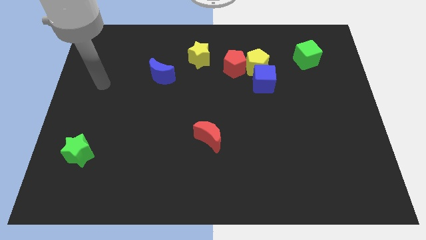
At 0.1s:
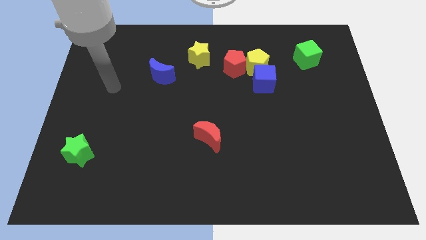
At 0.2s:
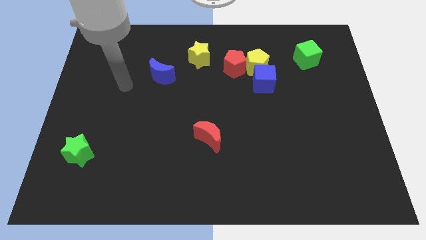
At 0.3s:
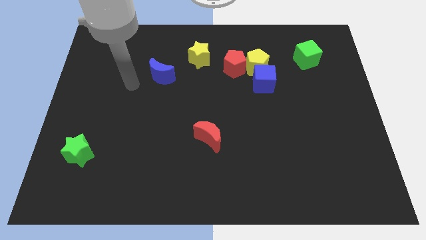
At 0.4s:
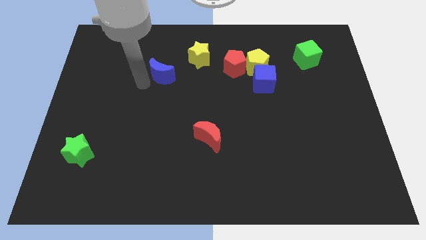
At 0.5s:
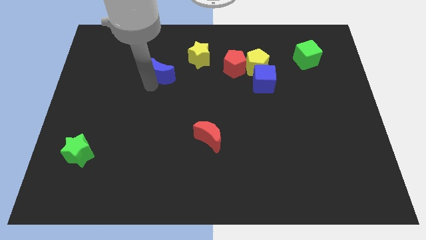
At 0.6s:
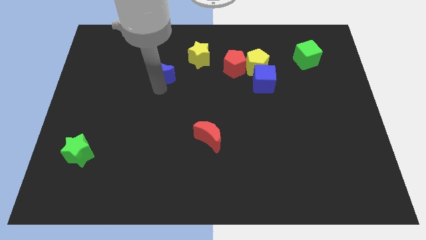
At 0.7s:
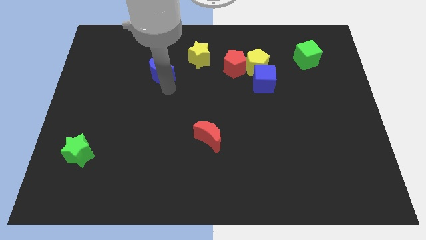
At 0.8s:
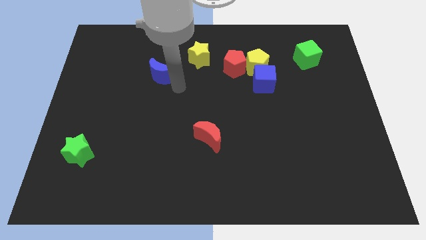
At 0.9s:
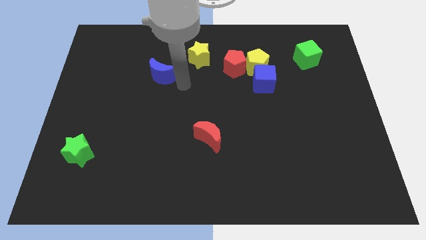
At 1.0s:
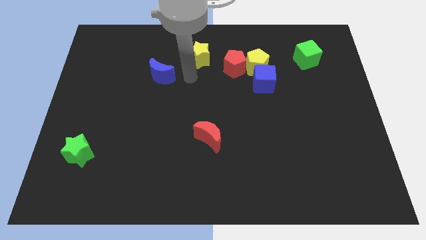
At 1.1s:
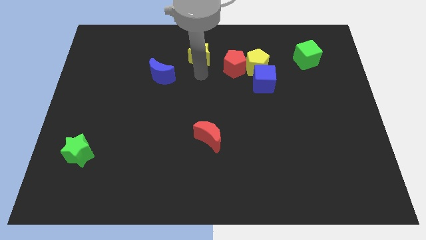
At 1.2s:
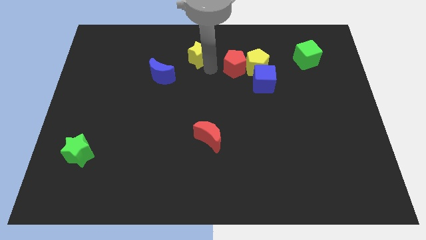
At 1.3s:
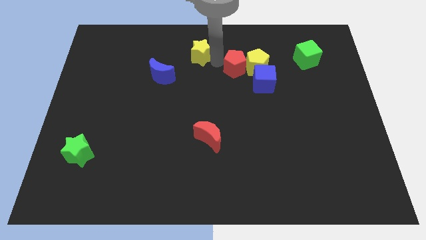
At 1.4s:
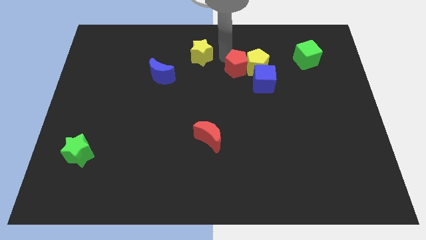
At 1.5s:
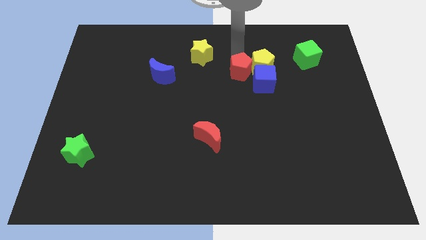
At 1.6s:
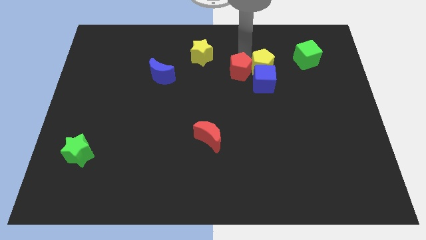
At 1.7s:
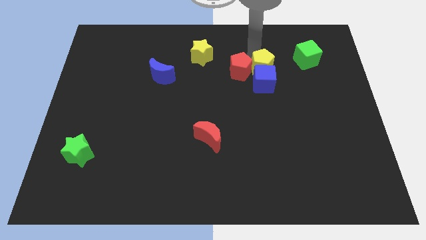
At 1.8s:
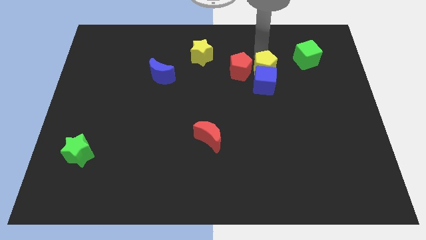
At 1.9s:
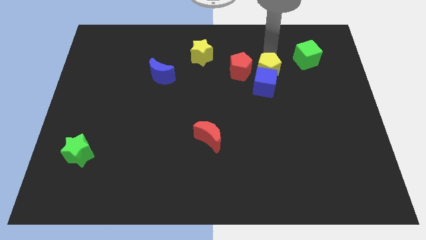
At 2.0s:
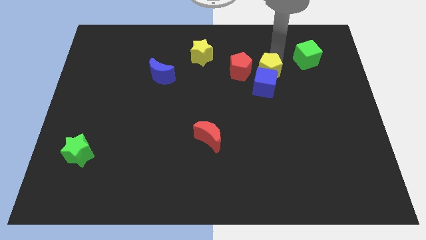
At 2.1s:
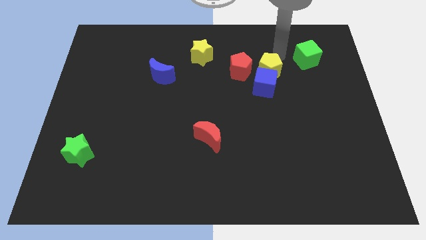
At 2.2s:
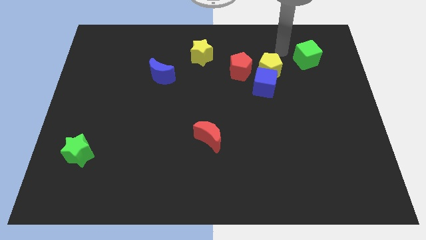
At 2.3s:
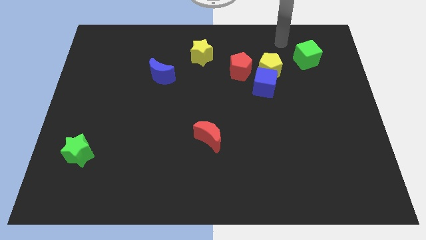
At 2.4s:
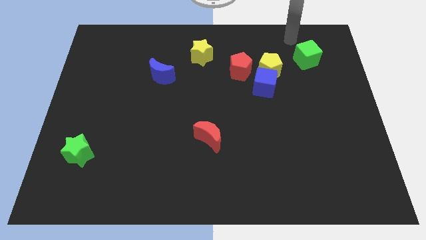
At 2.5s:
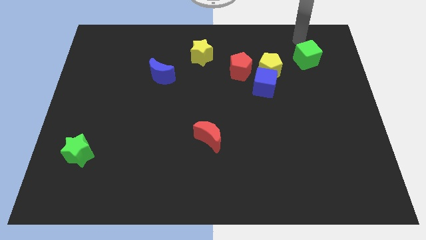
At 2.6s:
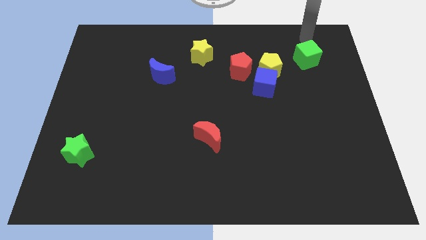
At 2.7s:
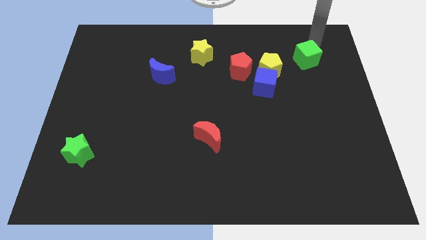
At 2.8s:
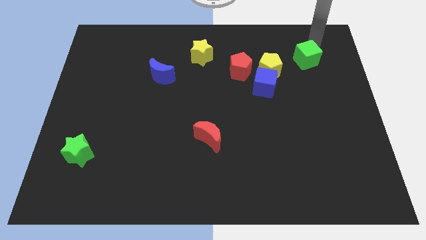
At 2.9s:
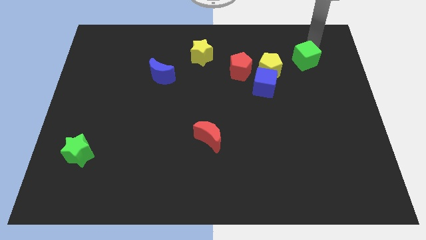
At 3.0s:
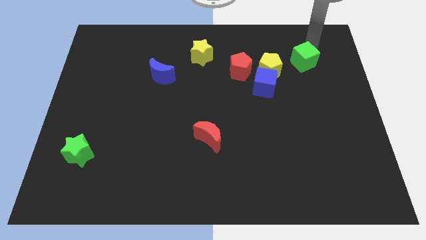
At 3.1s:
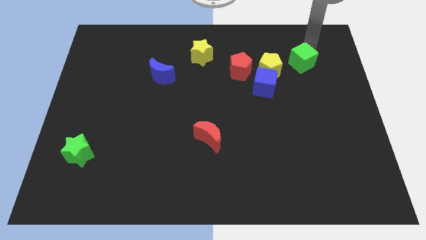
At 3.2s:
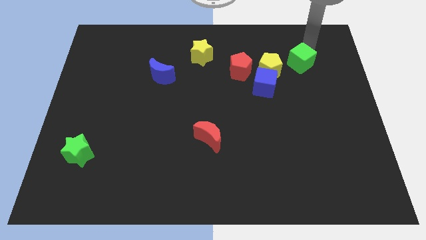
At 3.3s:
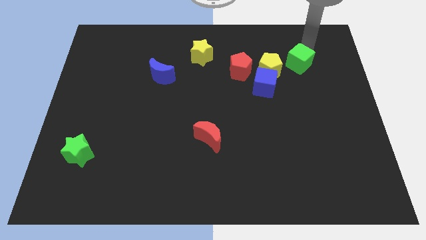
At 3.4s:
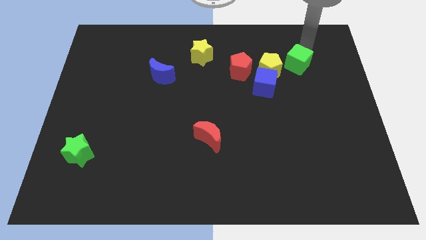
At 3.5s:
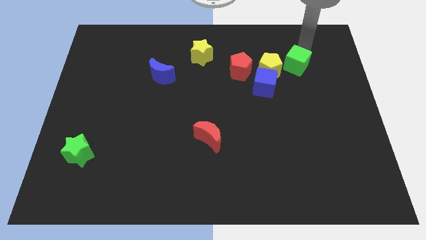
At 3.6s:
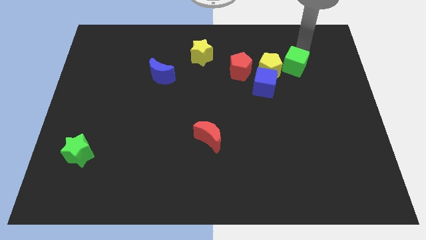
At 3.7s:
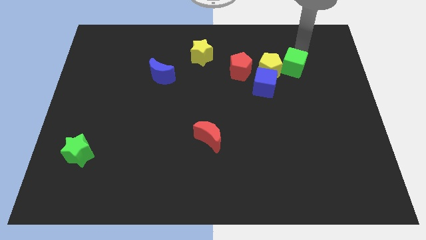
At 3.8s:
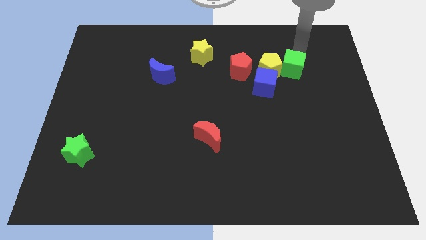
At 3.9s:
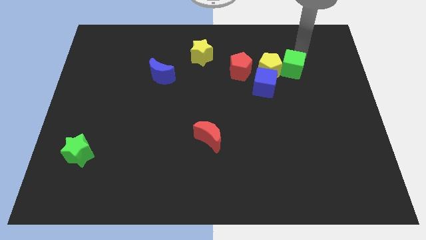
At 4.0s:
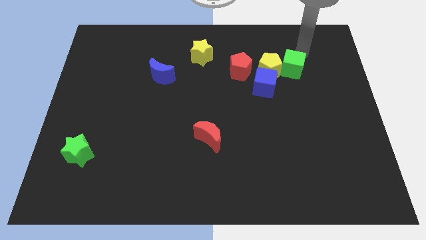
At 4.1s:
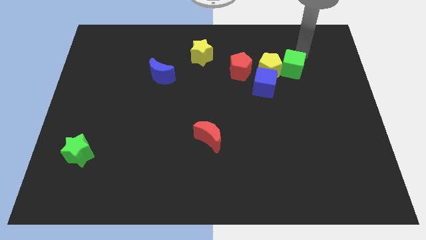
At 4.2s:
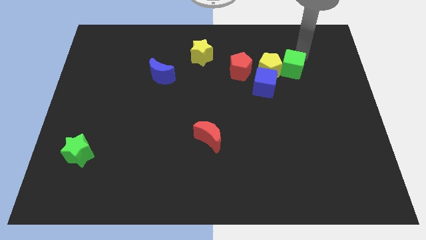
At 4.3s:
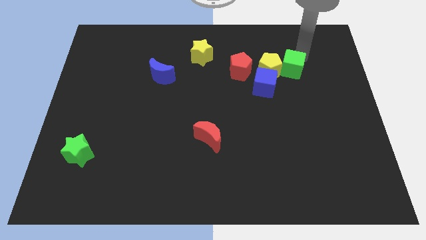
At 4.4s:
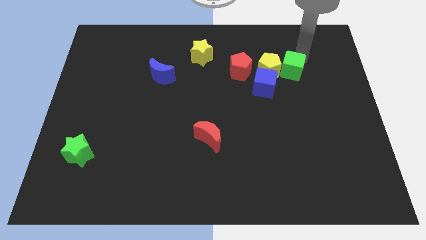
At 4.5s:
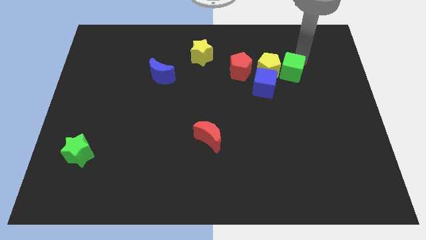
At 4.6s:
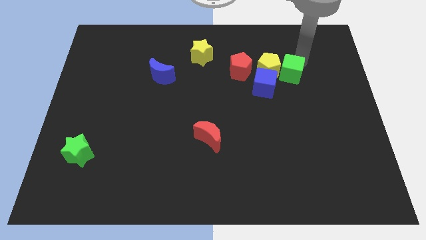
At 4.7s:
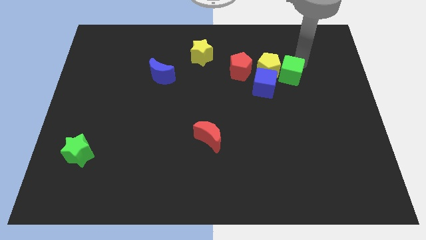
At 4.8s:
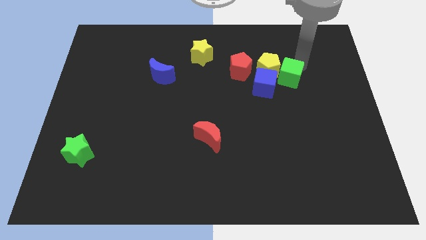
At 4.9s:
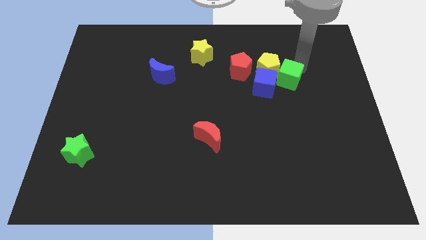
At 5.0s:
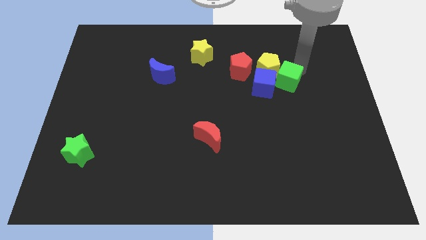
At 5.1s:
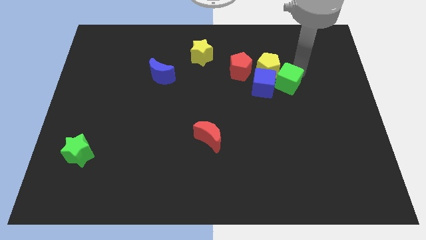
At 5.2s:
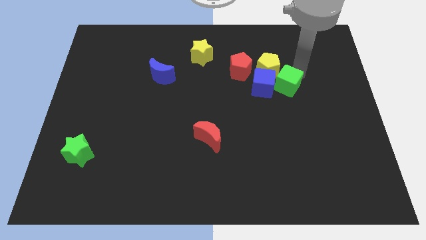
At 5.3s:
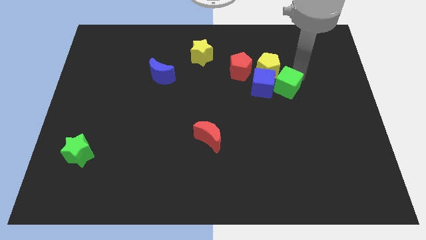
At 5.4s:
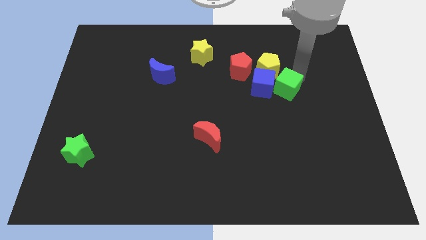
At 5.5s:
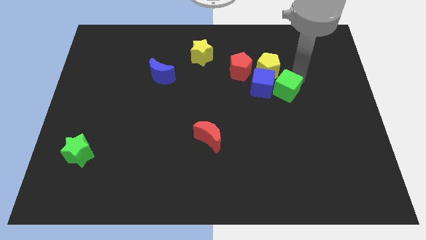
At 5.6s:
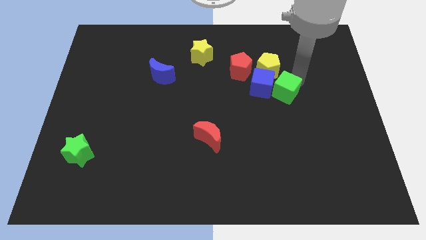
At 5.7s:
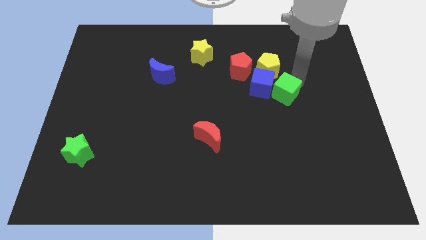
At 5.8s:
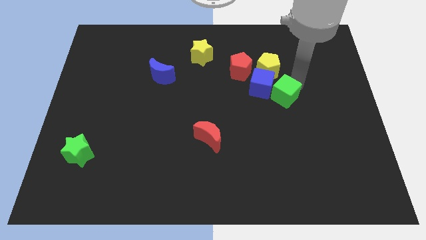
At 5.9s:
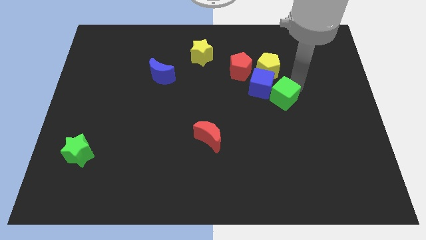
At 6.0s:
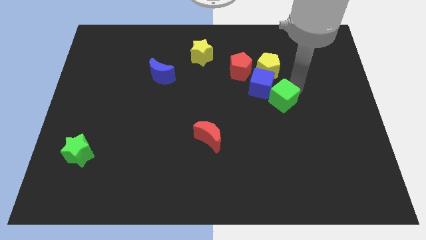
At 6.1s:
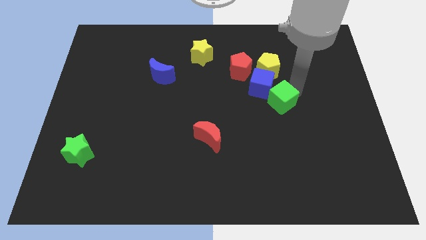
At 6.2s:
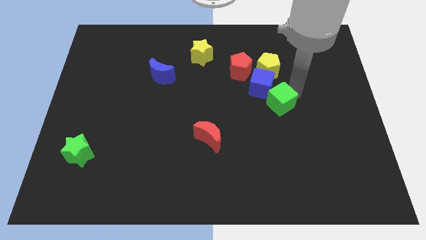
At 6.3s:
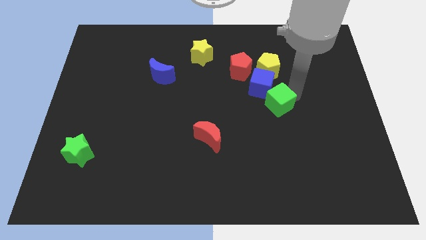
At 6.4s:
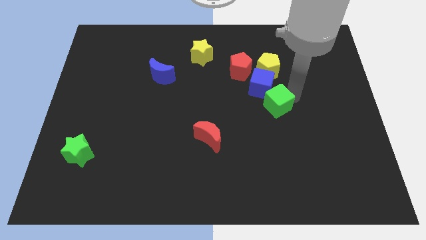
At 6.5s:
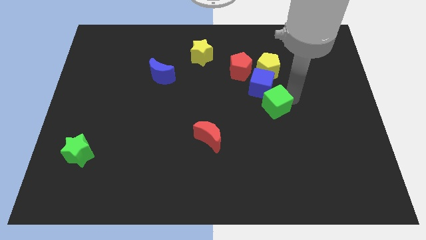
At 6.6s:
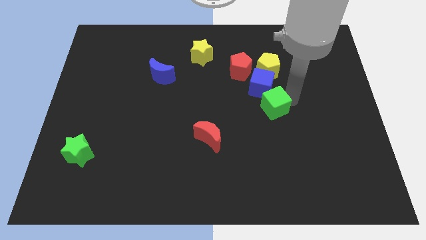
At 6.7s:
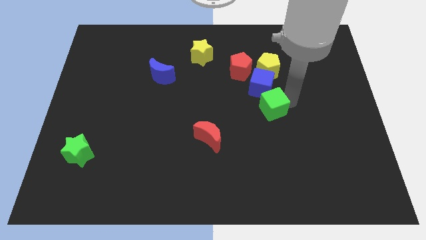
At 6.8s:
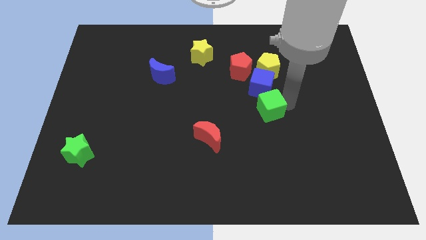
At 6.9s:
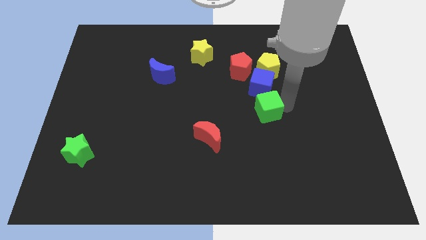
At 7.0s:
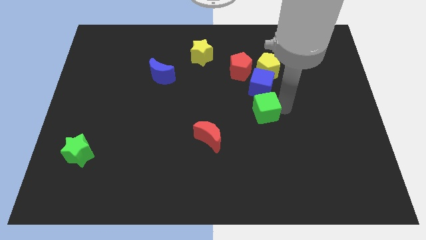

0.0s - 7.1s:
put the green cube to the middle

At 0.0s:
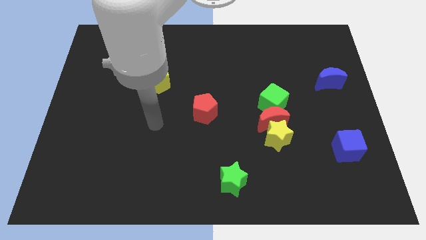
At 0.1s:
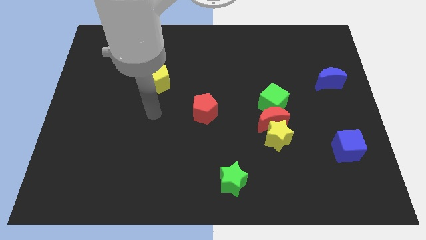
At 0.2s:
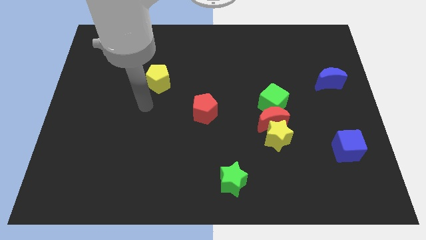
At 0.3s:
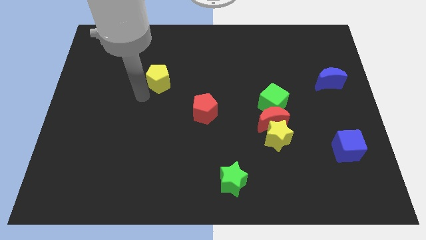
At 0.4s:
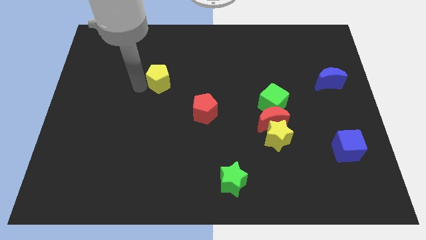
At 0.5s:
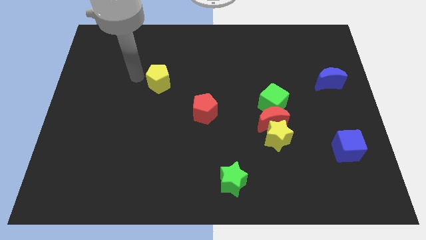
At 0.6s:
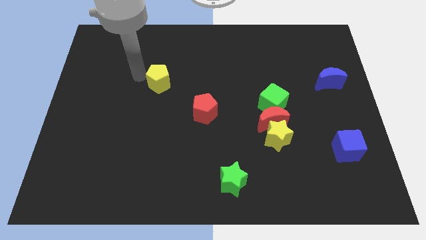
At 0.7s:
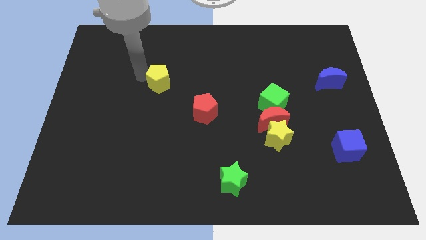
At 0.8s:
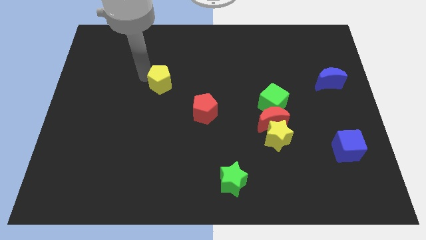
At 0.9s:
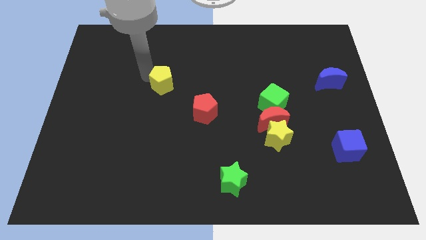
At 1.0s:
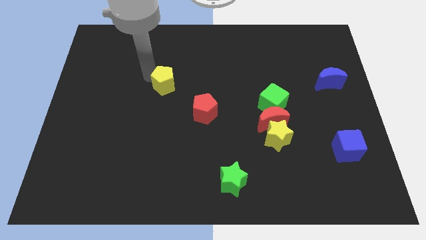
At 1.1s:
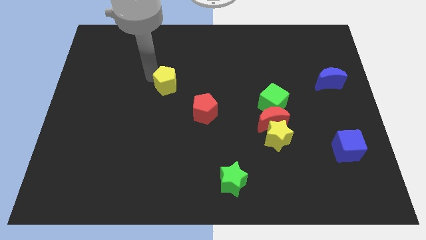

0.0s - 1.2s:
move the yellow pentagon to the center of the board

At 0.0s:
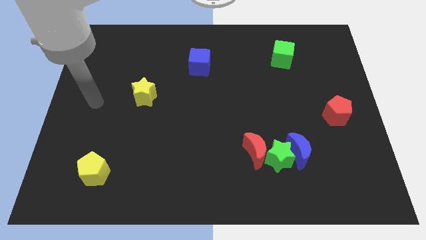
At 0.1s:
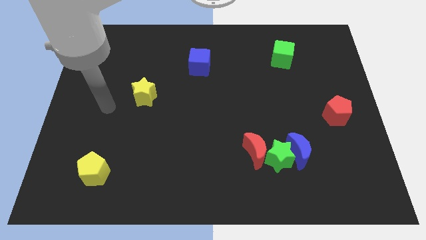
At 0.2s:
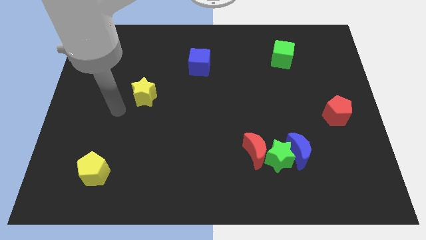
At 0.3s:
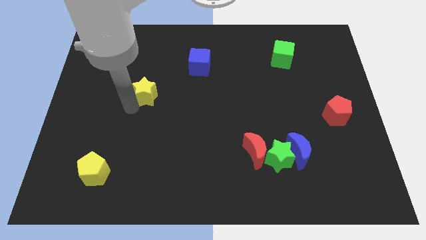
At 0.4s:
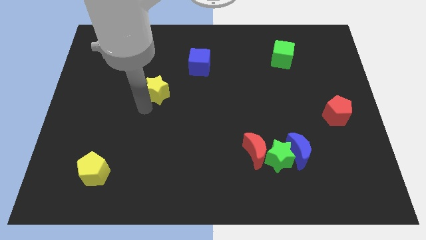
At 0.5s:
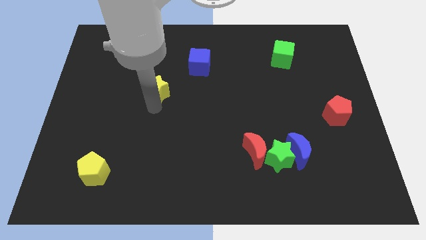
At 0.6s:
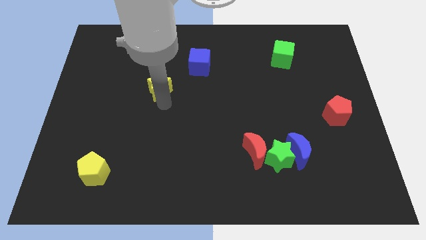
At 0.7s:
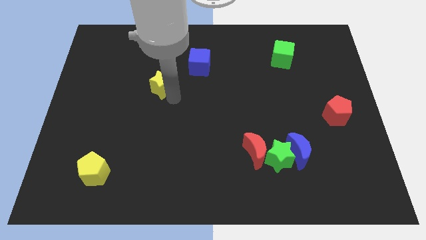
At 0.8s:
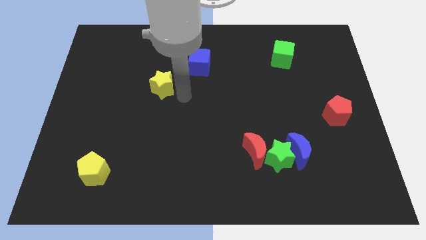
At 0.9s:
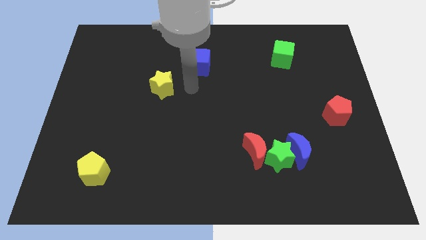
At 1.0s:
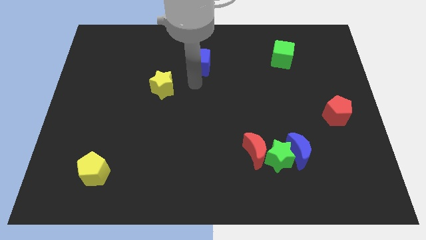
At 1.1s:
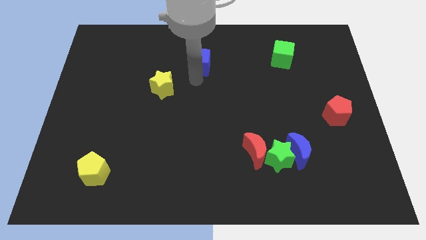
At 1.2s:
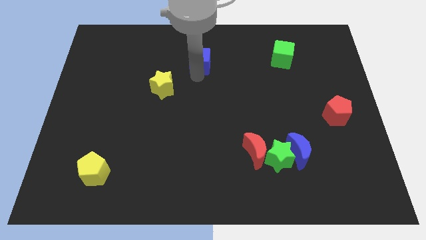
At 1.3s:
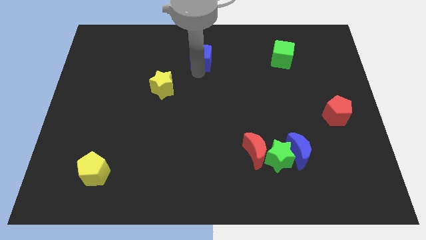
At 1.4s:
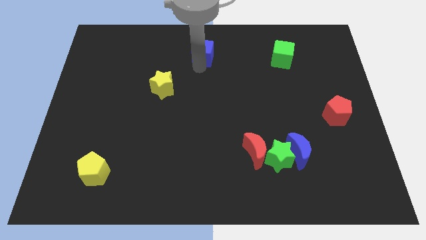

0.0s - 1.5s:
push the blue cube to the top
